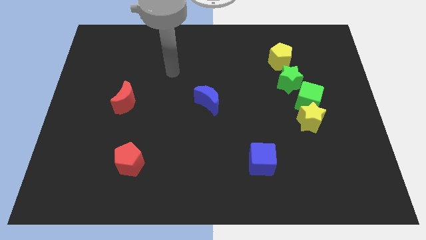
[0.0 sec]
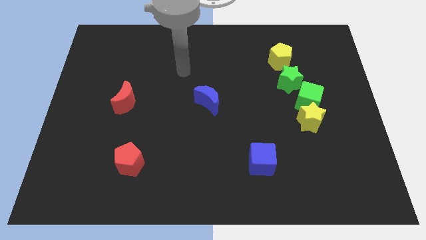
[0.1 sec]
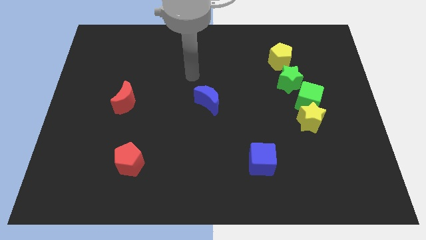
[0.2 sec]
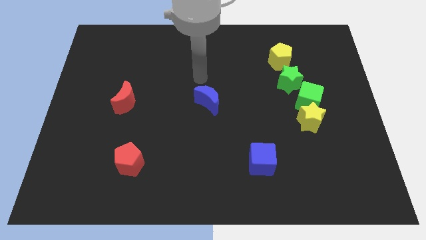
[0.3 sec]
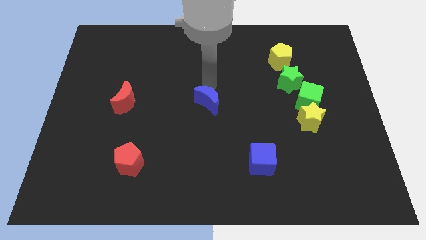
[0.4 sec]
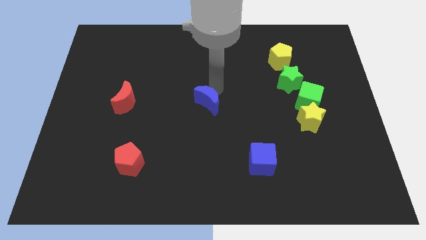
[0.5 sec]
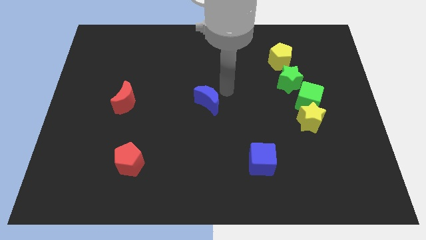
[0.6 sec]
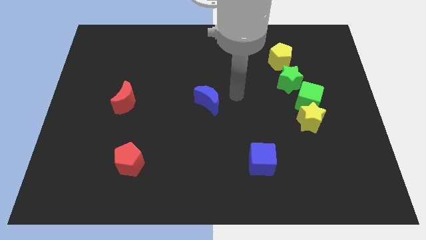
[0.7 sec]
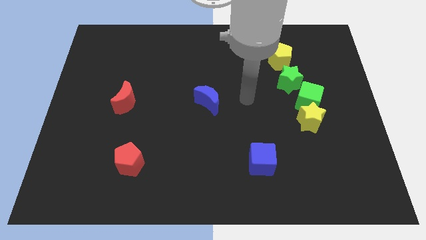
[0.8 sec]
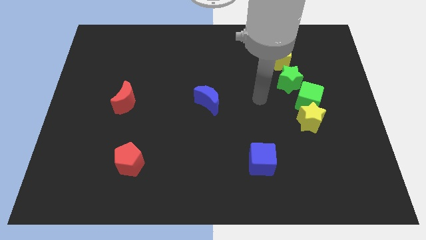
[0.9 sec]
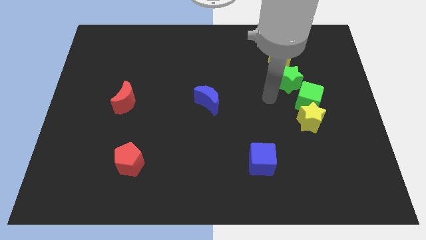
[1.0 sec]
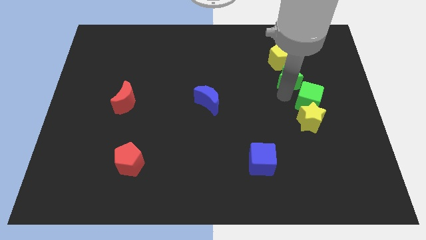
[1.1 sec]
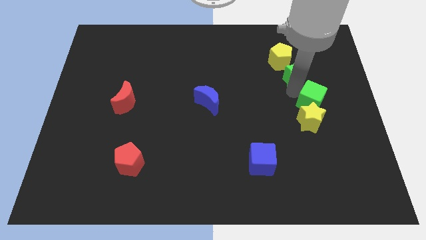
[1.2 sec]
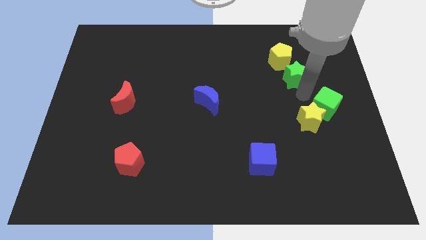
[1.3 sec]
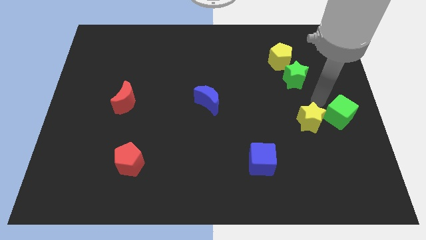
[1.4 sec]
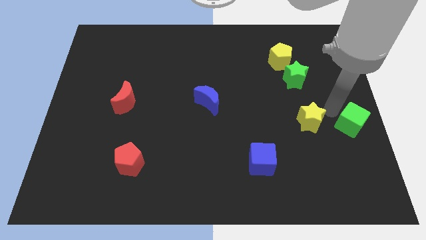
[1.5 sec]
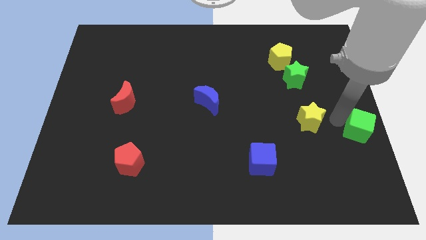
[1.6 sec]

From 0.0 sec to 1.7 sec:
pull the yellow star apart from the green cube

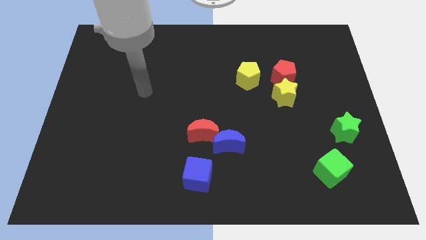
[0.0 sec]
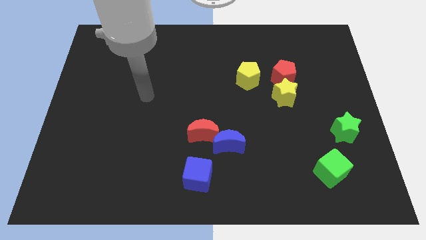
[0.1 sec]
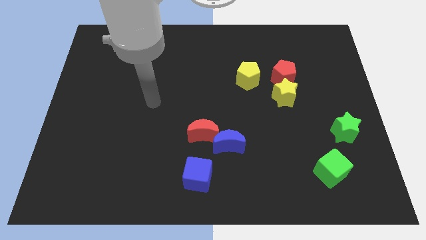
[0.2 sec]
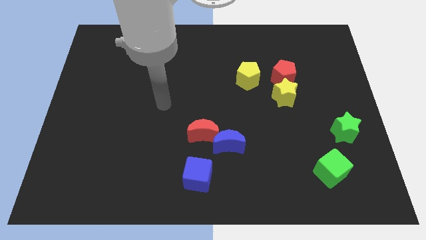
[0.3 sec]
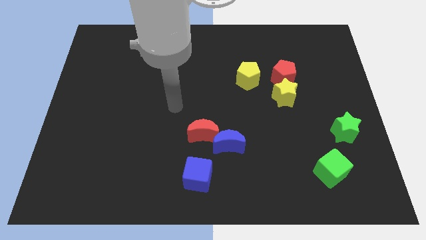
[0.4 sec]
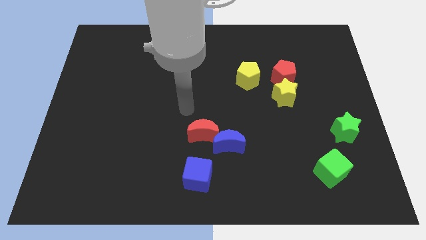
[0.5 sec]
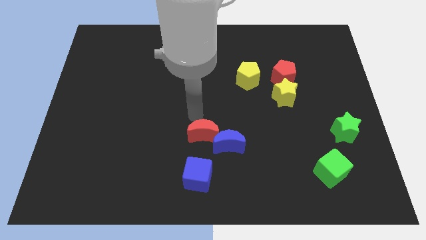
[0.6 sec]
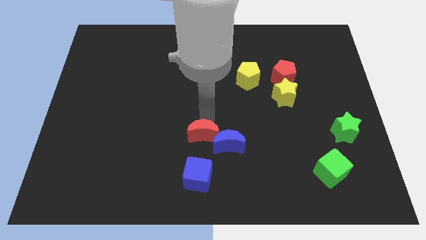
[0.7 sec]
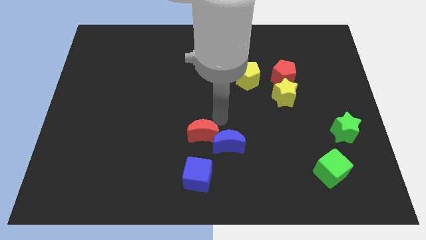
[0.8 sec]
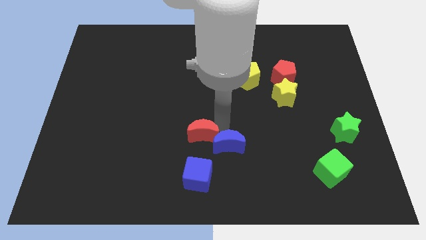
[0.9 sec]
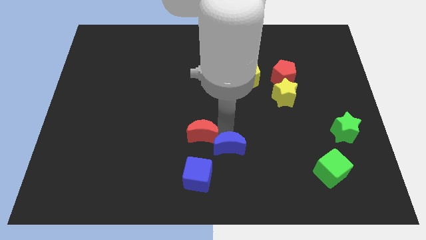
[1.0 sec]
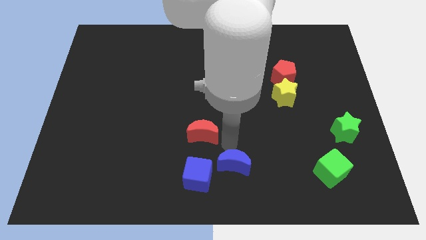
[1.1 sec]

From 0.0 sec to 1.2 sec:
move the red moon away from the blue moon

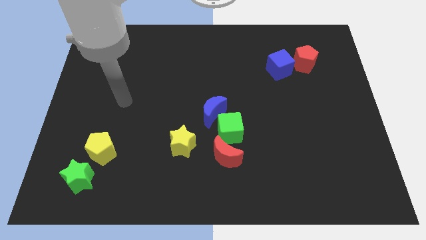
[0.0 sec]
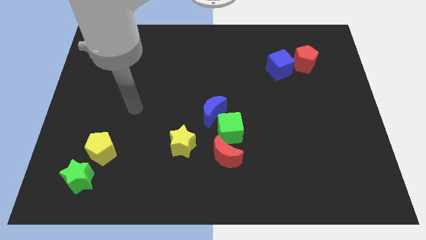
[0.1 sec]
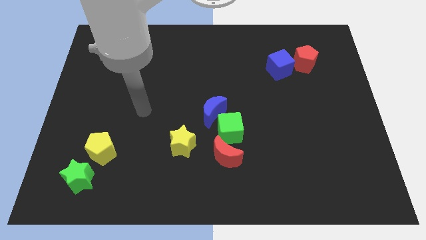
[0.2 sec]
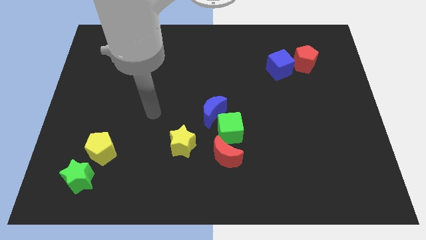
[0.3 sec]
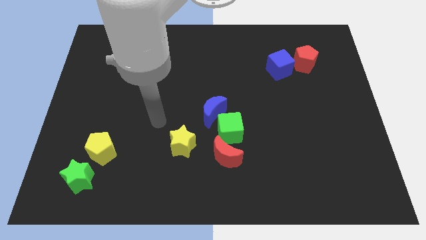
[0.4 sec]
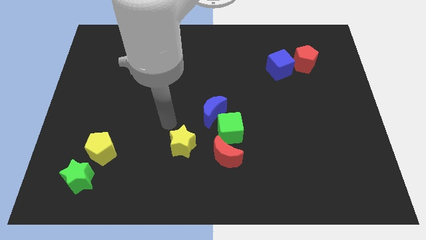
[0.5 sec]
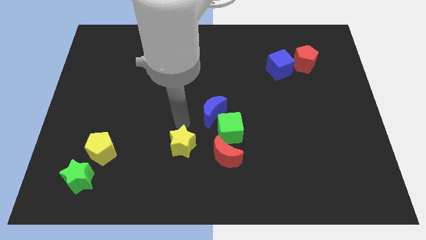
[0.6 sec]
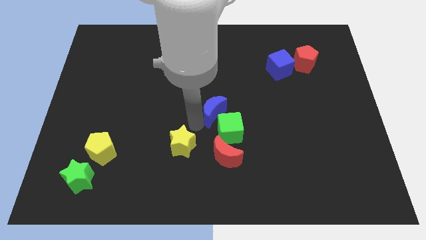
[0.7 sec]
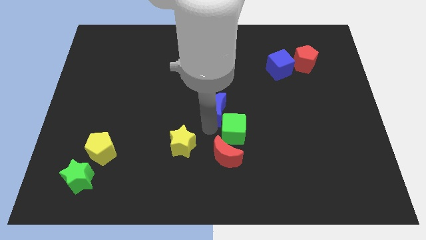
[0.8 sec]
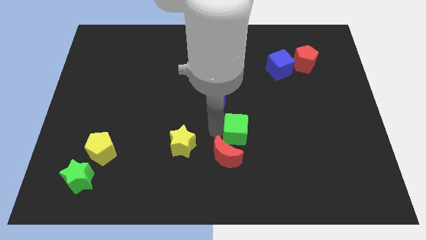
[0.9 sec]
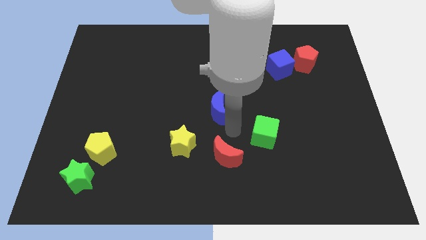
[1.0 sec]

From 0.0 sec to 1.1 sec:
move the blue moon away from the green cube

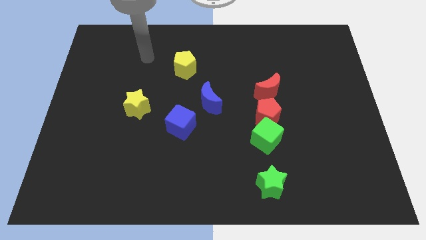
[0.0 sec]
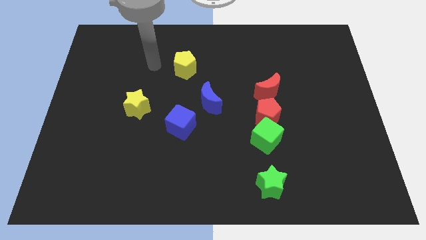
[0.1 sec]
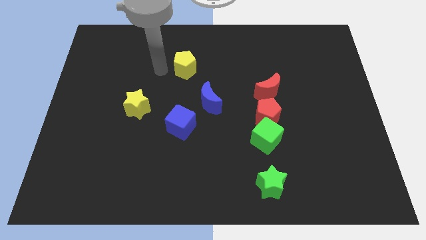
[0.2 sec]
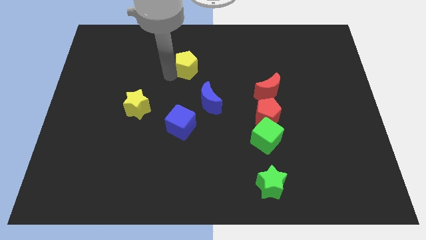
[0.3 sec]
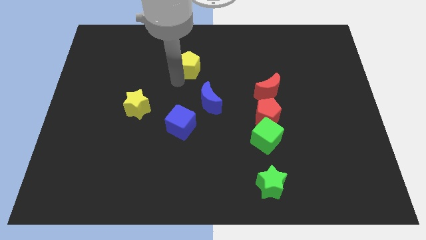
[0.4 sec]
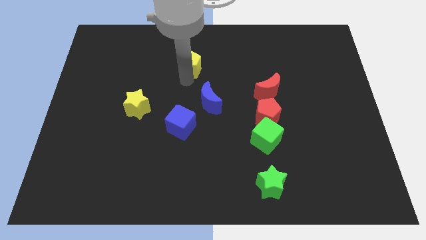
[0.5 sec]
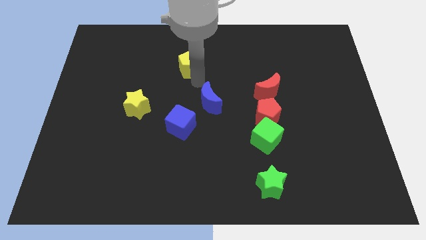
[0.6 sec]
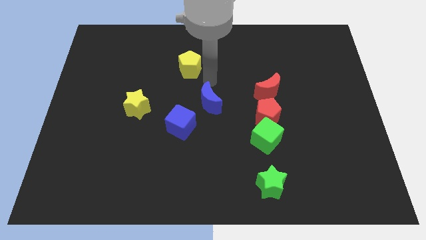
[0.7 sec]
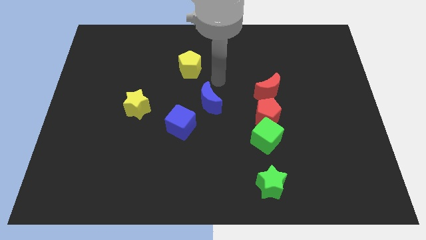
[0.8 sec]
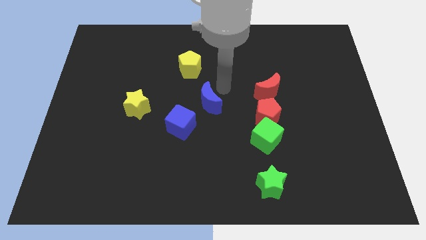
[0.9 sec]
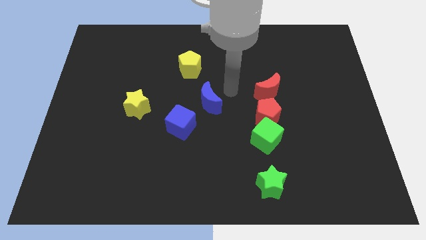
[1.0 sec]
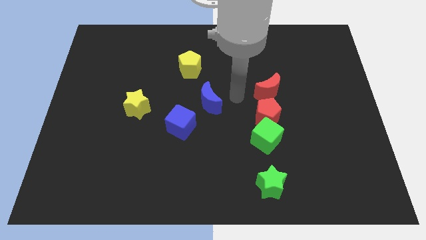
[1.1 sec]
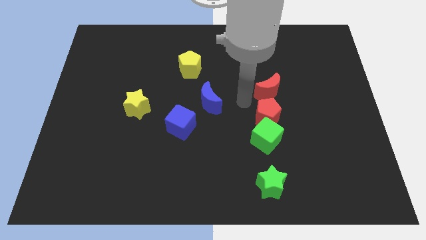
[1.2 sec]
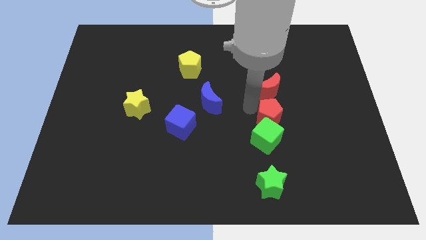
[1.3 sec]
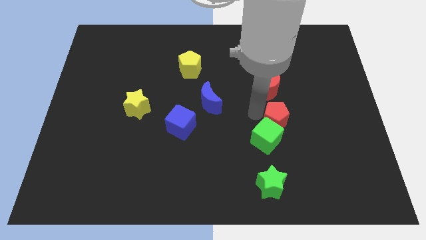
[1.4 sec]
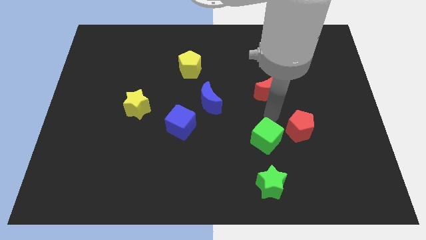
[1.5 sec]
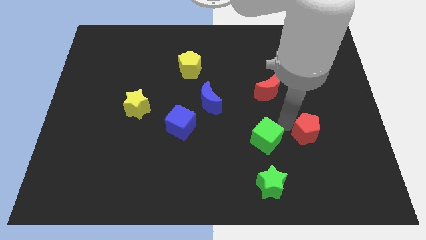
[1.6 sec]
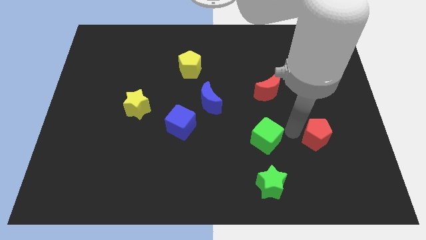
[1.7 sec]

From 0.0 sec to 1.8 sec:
separate the green cube from the red pentagon

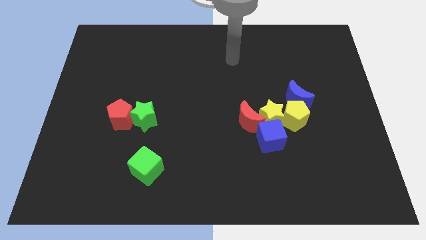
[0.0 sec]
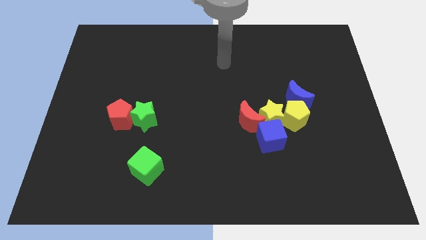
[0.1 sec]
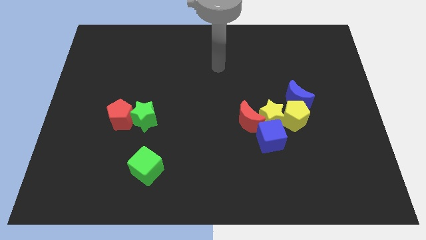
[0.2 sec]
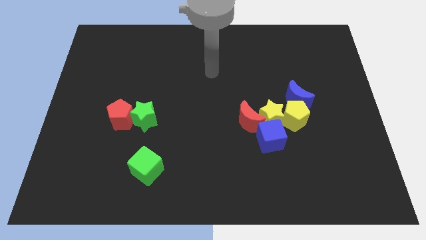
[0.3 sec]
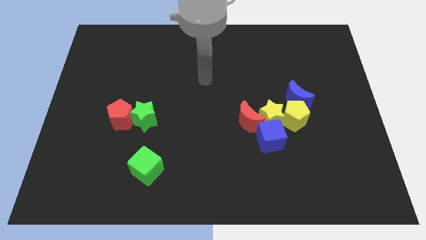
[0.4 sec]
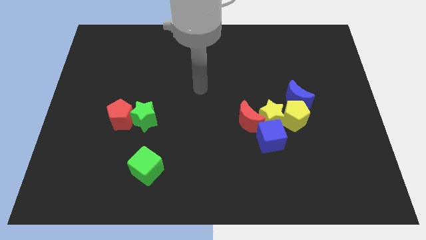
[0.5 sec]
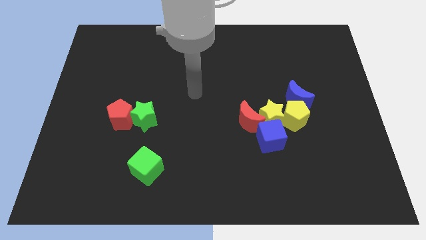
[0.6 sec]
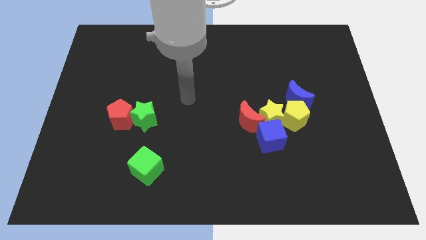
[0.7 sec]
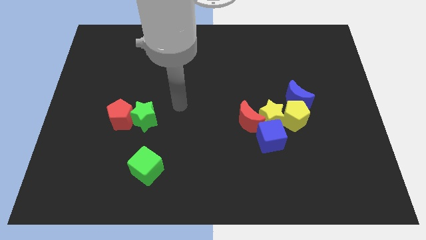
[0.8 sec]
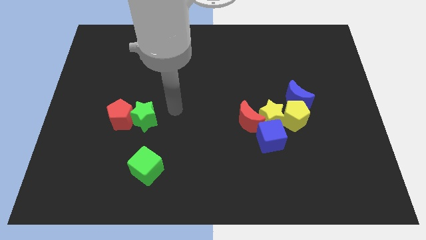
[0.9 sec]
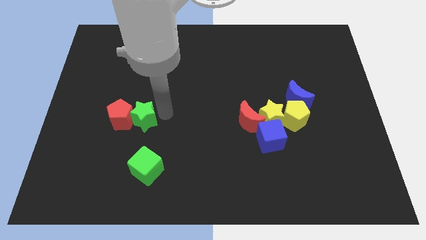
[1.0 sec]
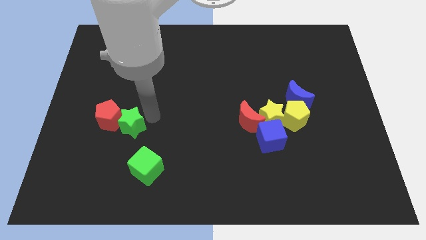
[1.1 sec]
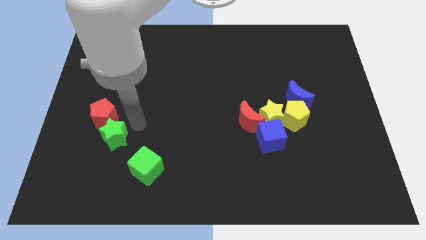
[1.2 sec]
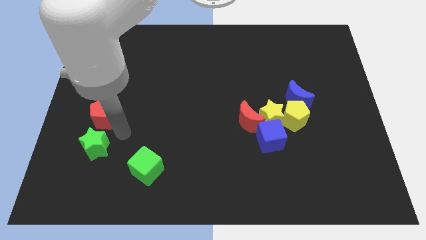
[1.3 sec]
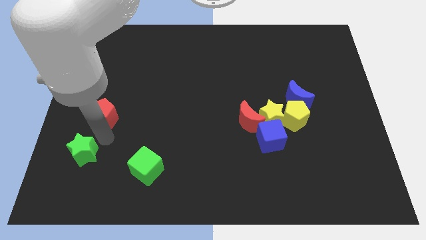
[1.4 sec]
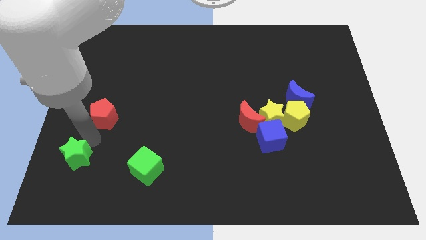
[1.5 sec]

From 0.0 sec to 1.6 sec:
separate the red pentagon from the green star

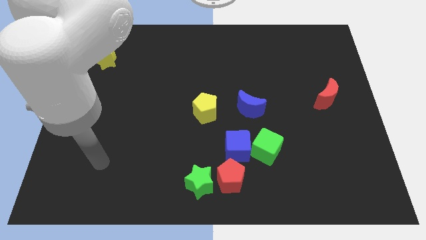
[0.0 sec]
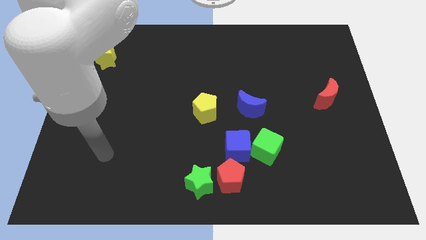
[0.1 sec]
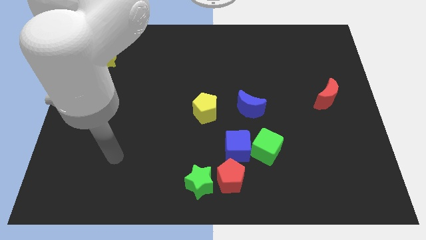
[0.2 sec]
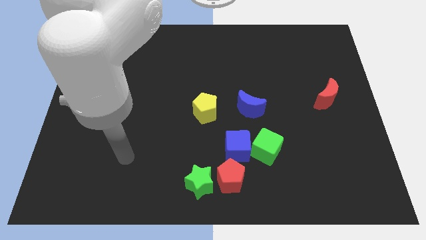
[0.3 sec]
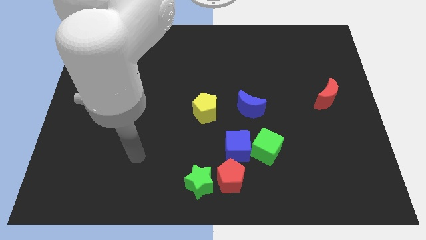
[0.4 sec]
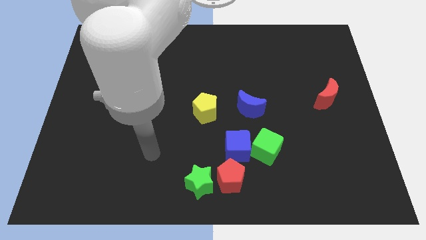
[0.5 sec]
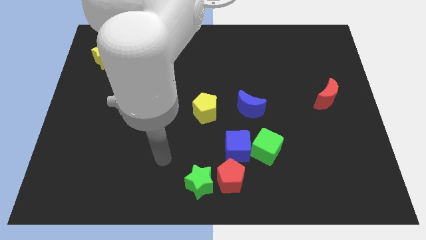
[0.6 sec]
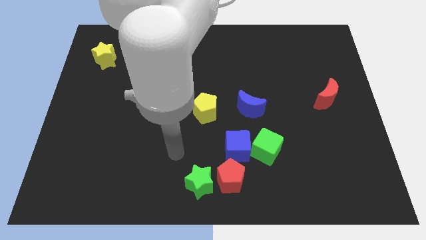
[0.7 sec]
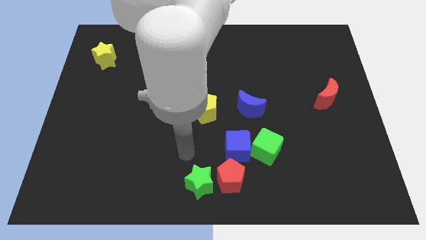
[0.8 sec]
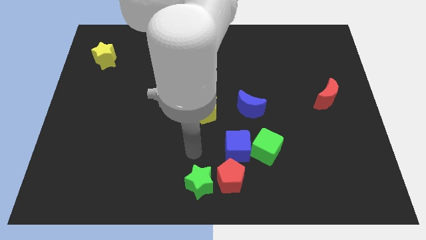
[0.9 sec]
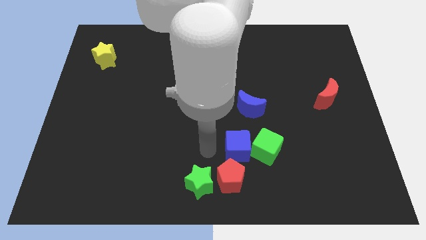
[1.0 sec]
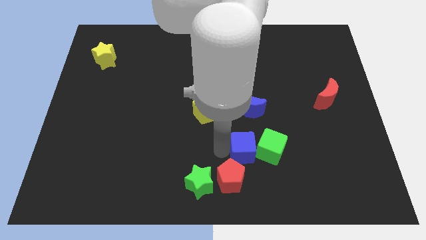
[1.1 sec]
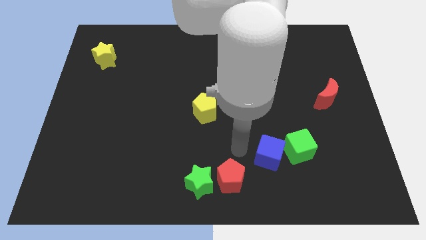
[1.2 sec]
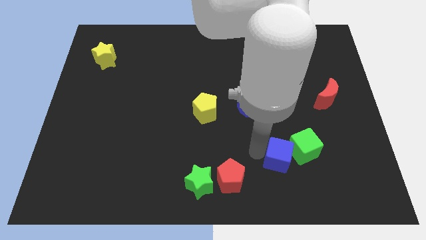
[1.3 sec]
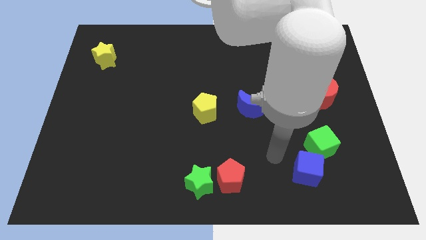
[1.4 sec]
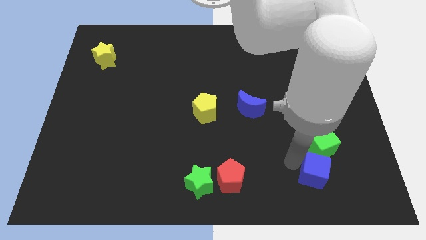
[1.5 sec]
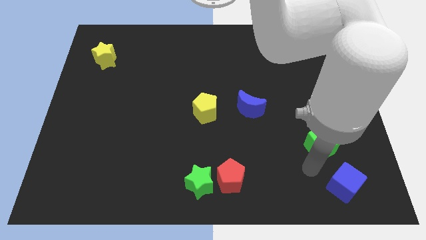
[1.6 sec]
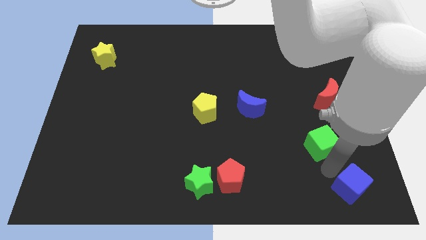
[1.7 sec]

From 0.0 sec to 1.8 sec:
move the green cube away from the blue cube
